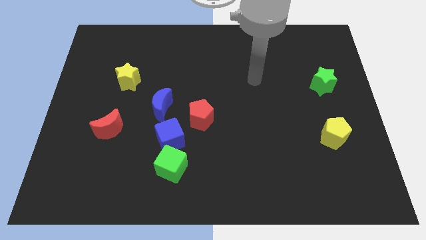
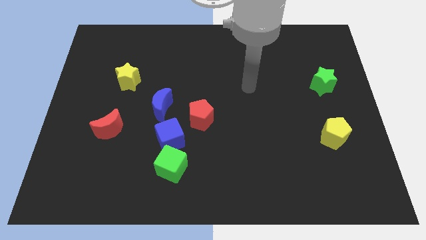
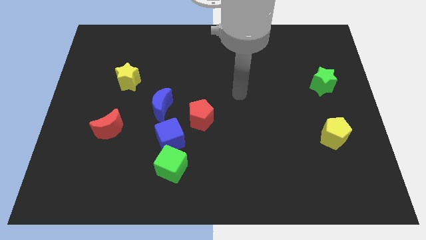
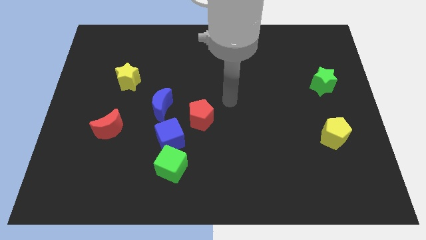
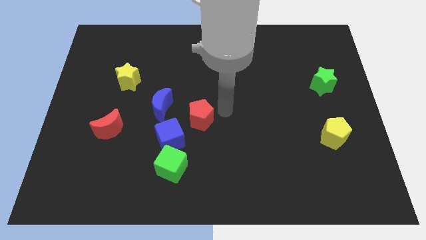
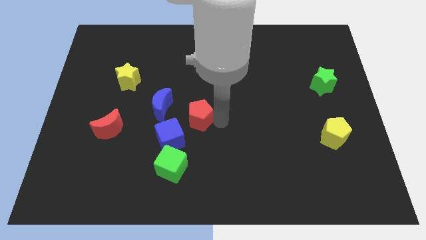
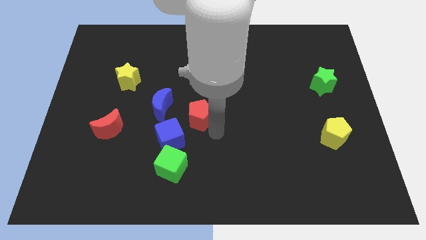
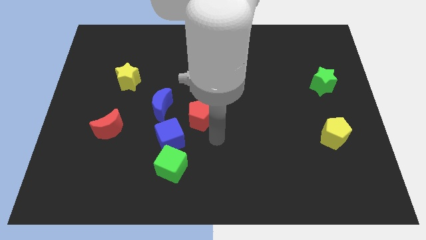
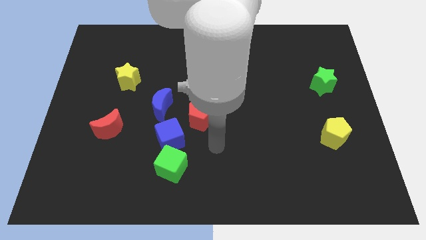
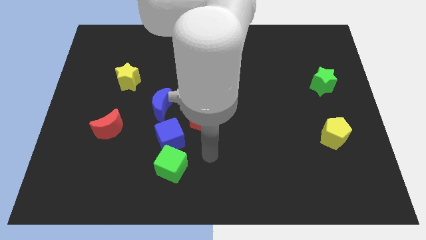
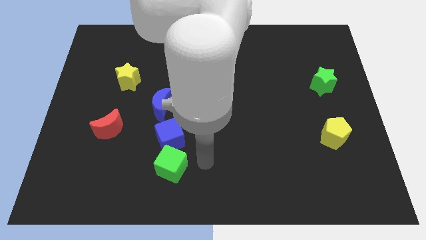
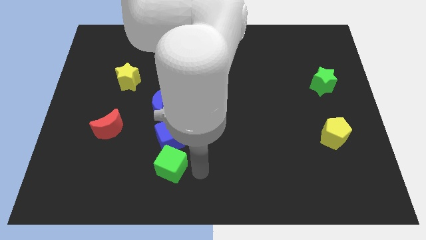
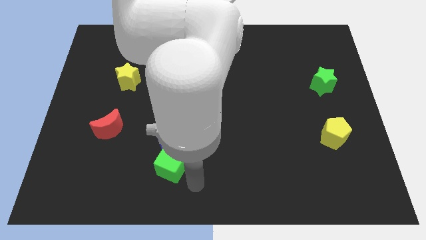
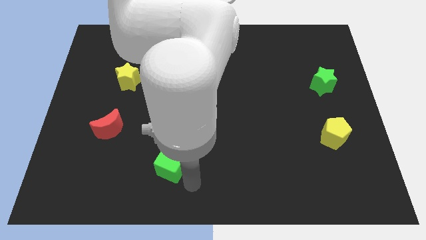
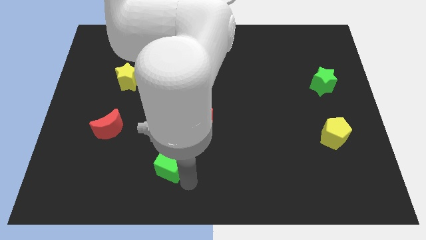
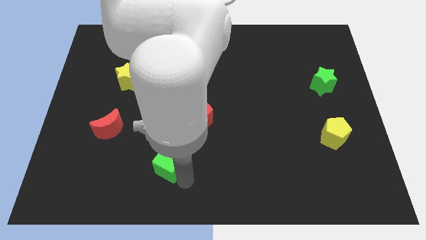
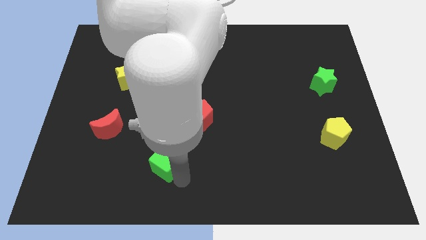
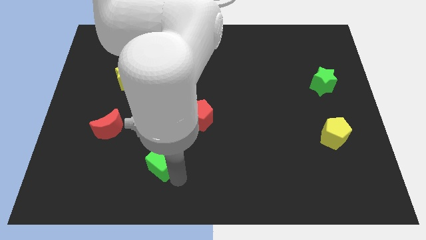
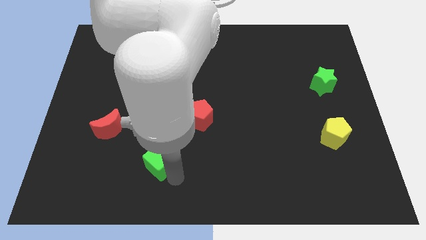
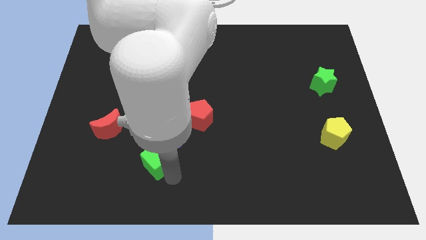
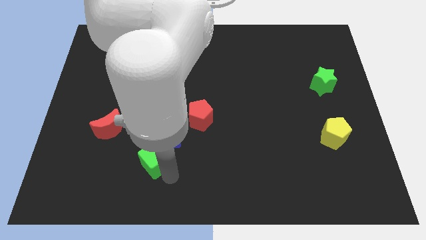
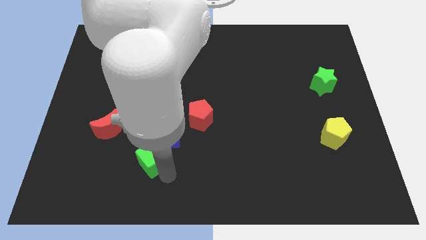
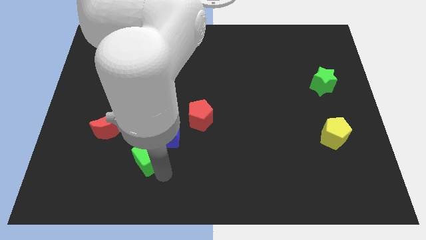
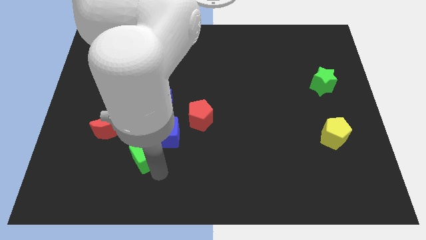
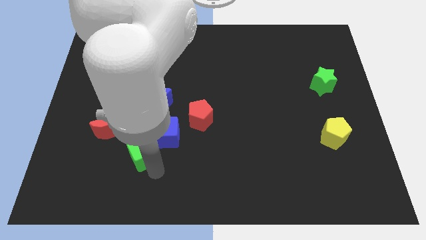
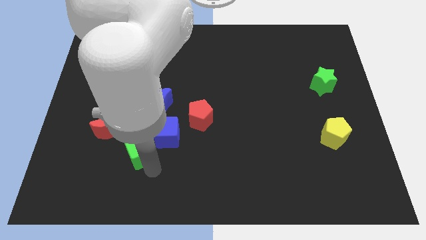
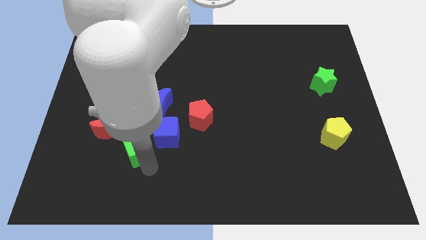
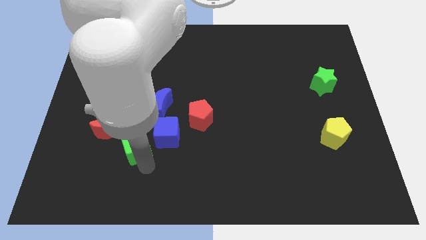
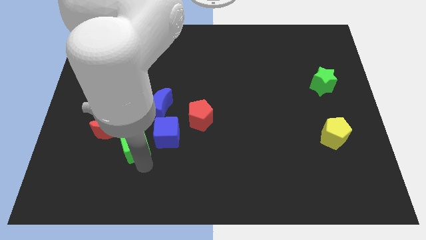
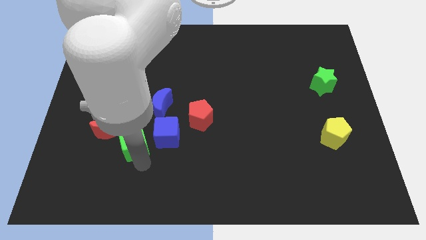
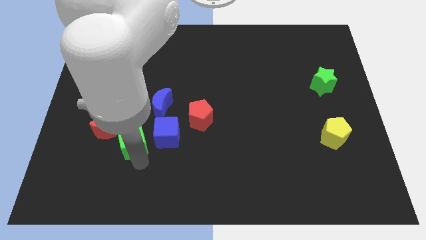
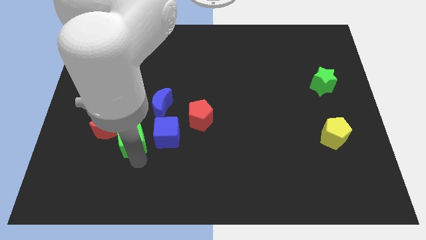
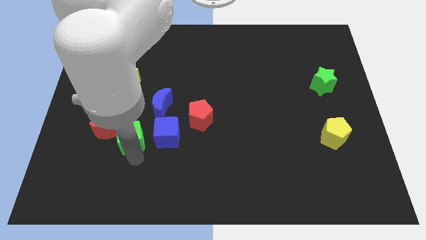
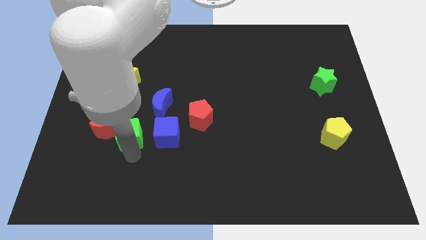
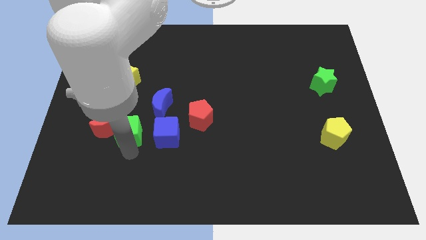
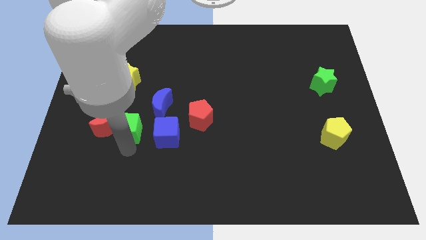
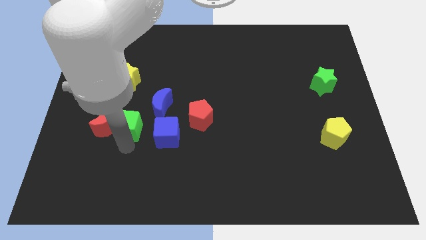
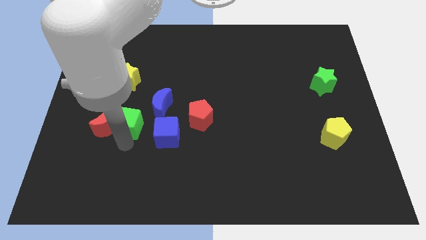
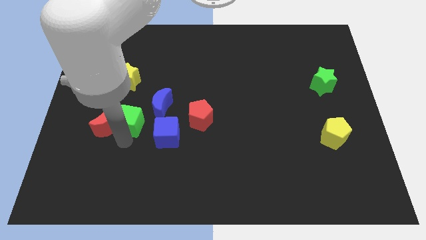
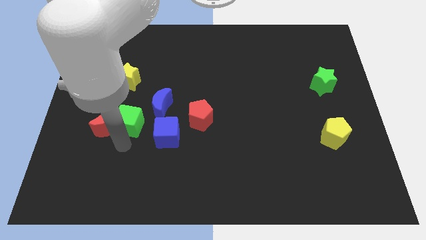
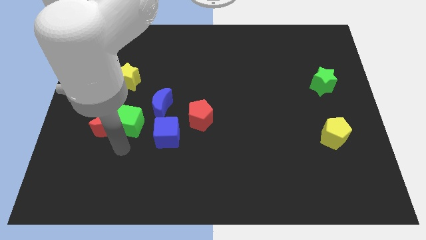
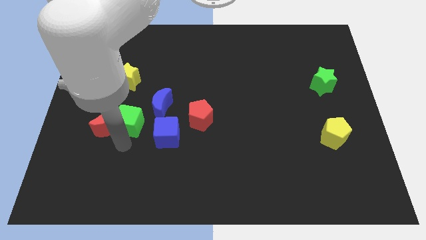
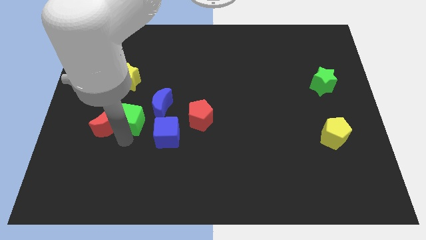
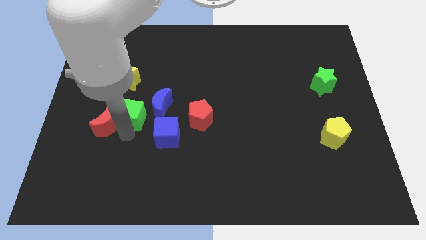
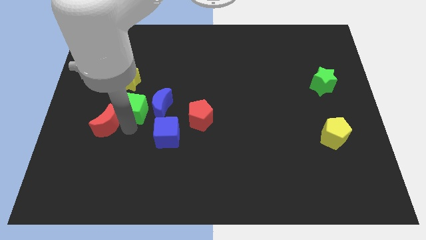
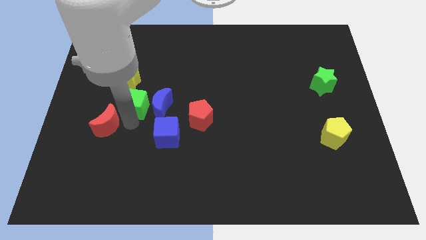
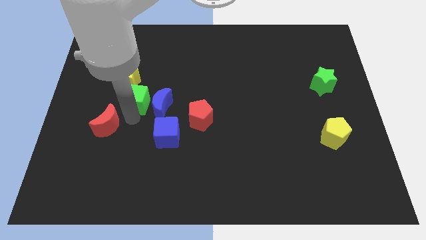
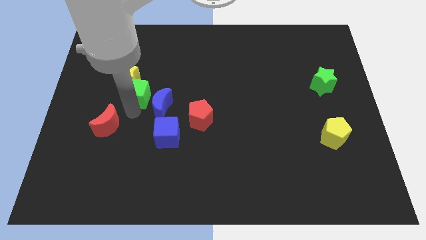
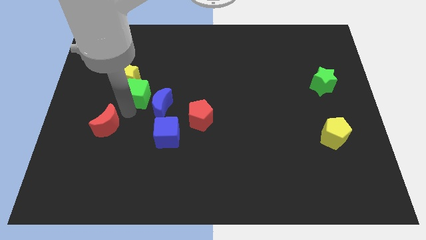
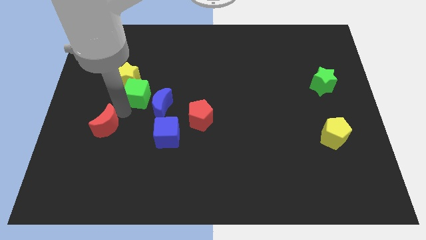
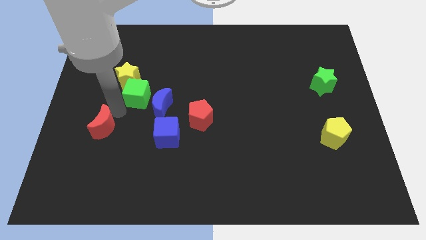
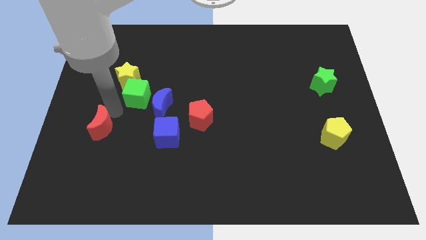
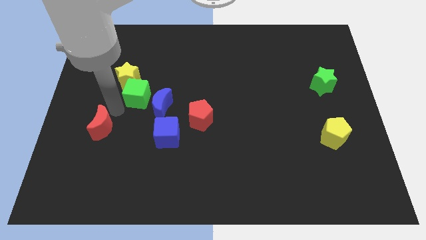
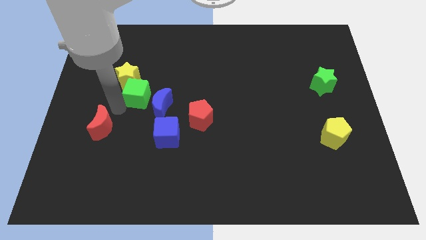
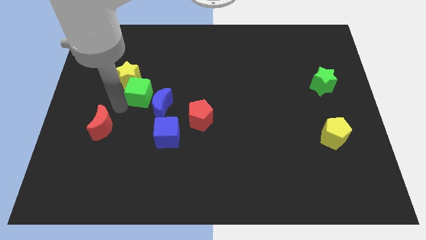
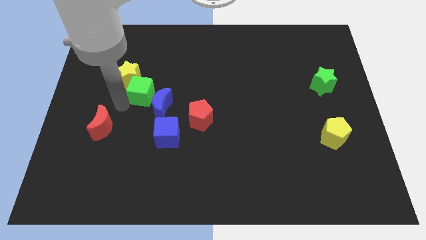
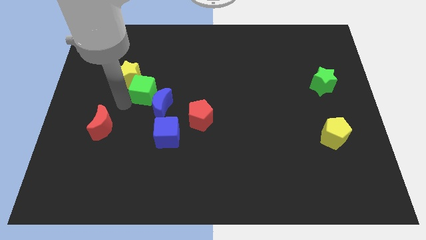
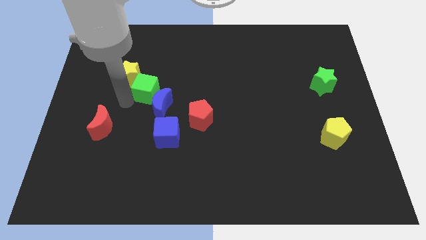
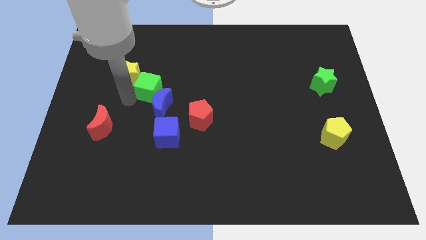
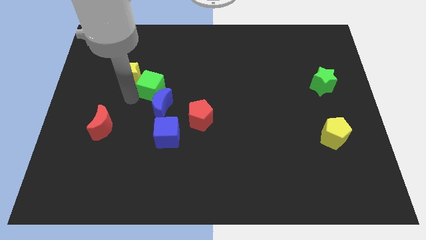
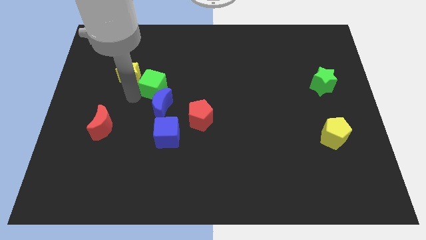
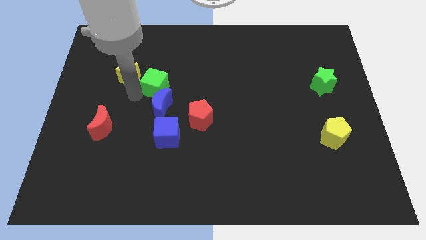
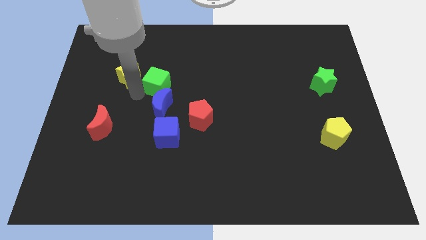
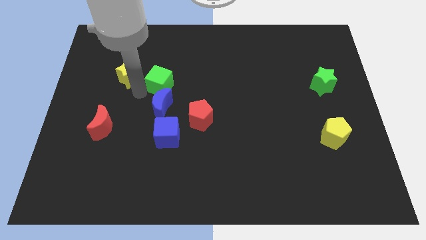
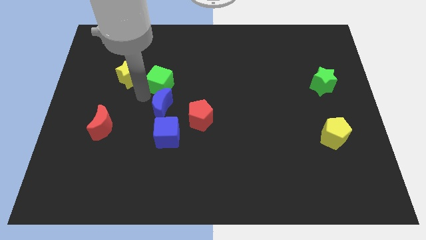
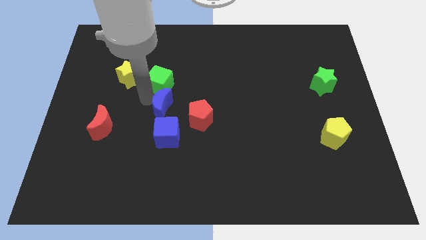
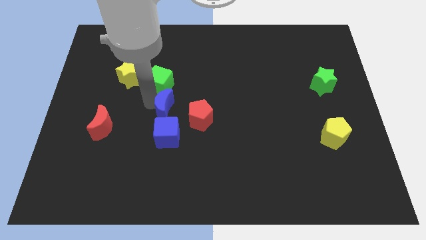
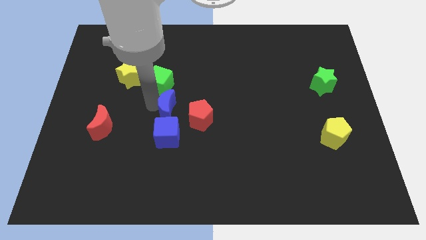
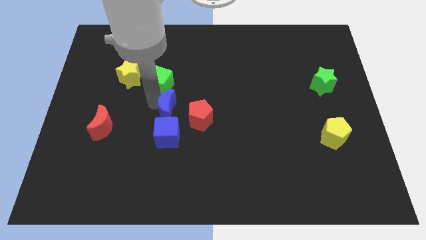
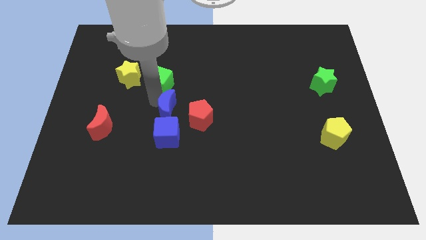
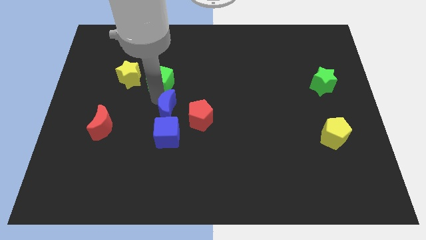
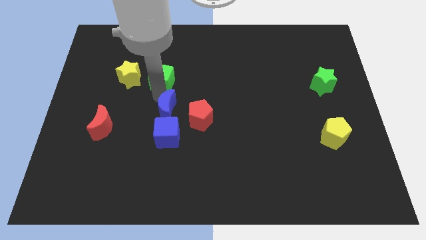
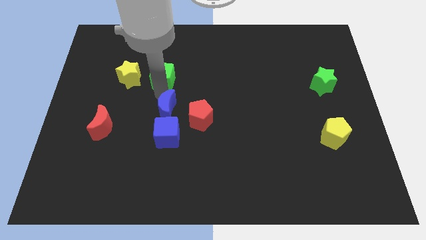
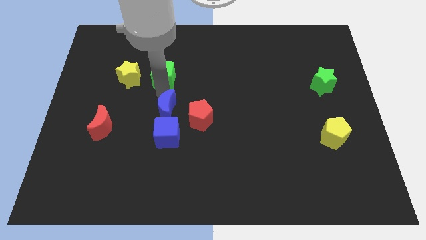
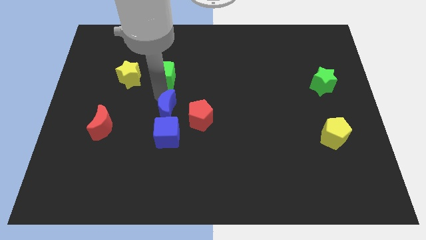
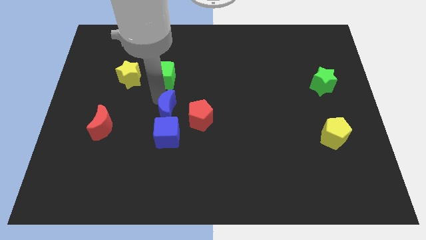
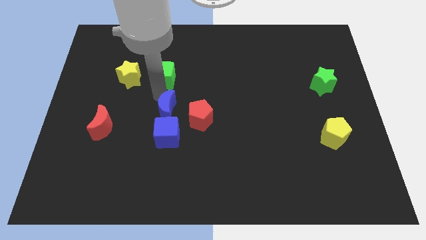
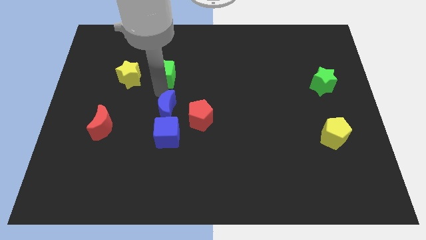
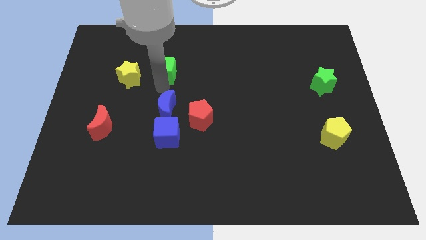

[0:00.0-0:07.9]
slide the green cube to the top right of the yellow star

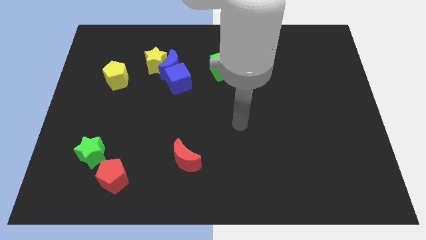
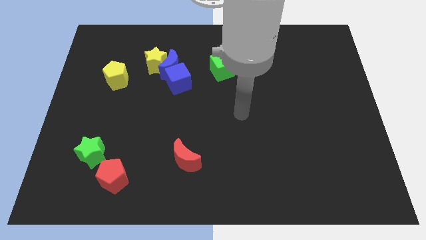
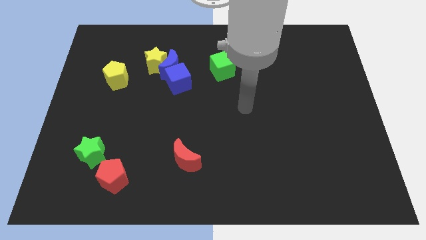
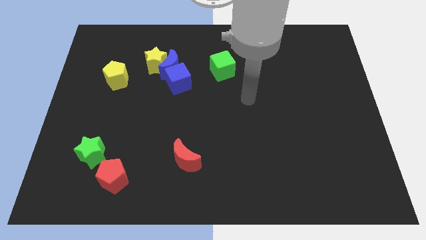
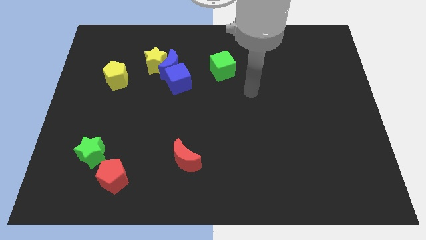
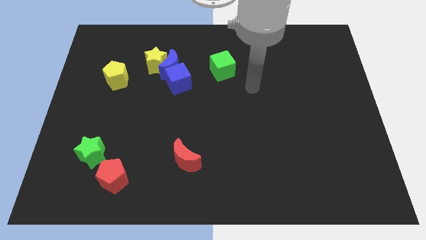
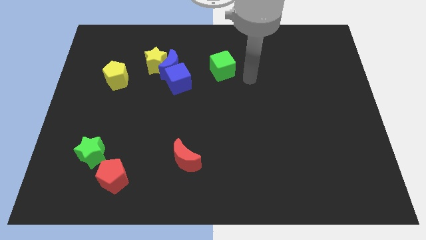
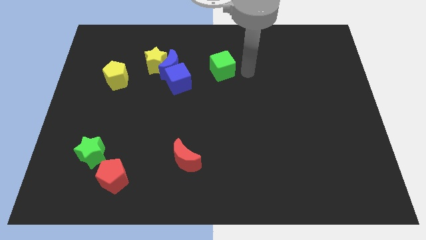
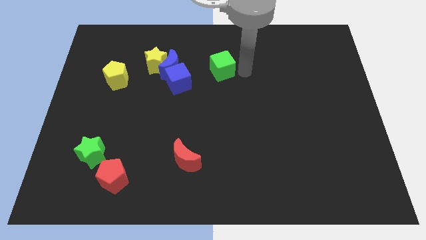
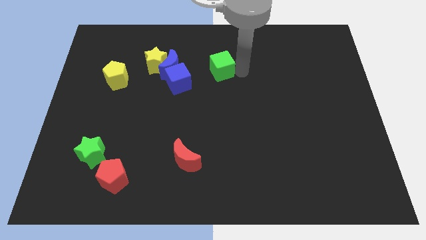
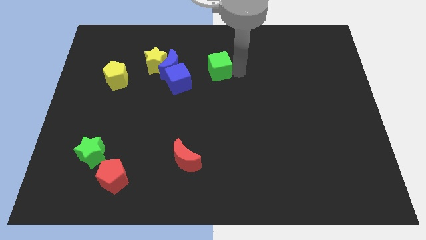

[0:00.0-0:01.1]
slide the green cube to the top right side of the blue cube
